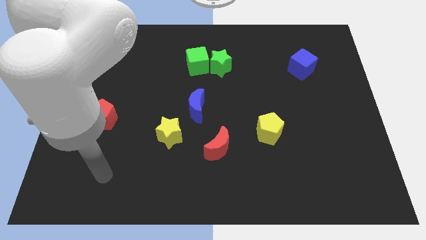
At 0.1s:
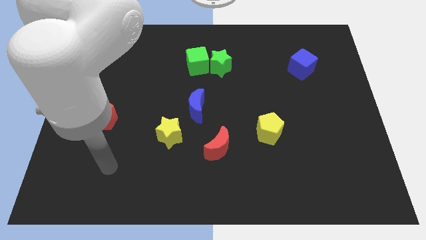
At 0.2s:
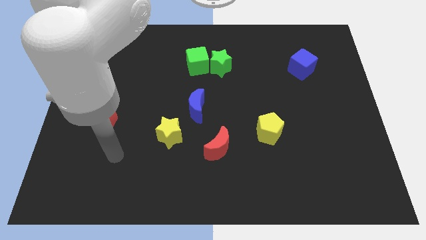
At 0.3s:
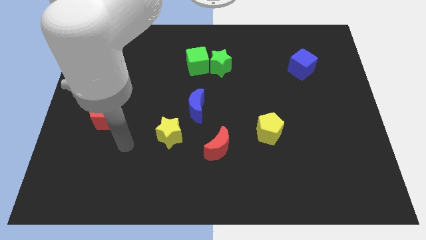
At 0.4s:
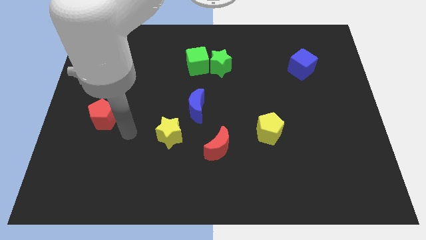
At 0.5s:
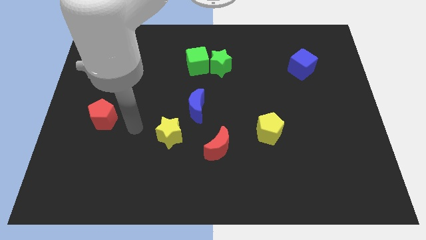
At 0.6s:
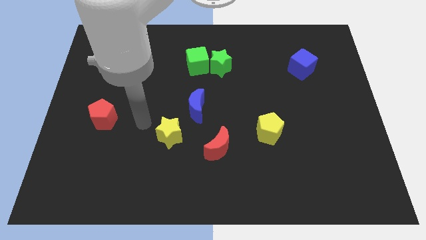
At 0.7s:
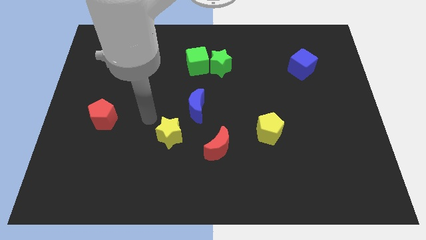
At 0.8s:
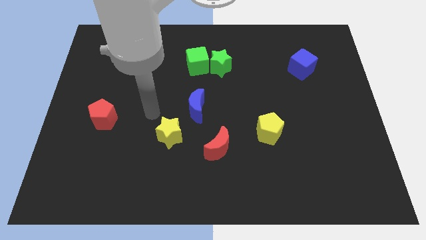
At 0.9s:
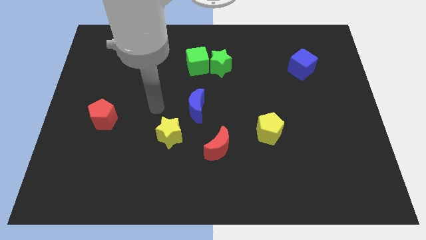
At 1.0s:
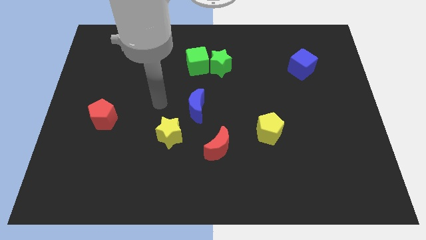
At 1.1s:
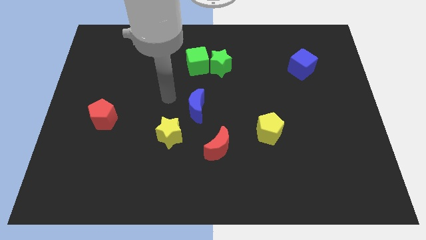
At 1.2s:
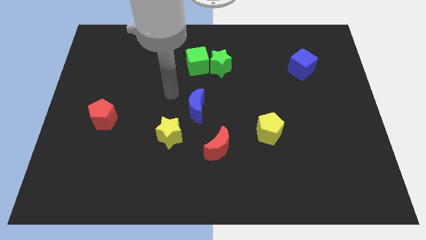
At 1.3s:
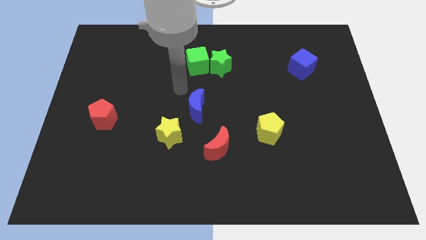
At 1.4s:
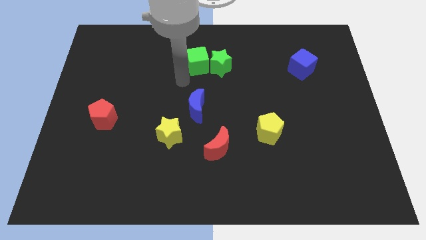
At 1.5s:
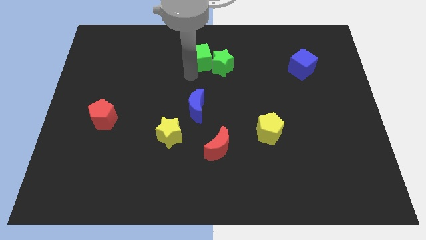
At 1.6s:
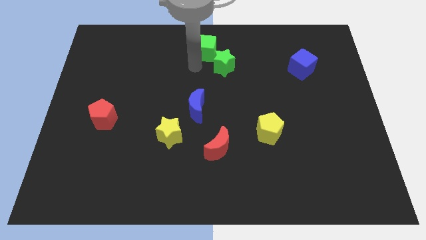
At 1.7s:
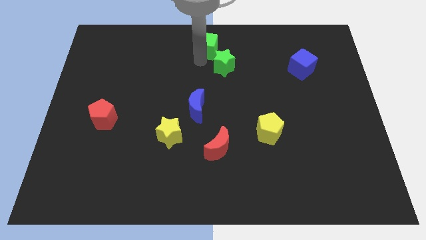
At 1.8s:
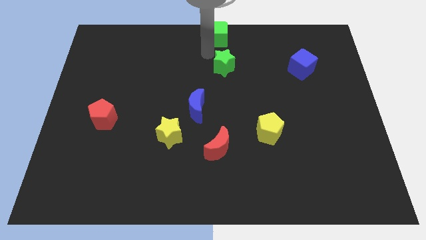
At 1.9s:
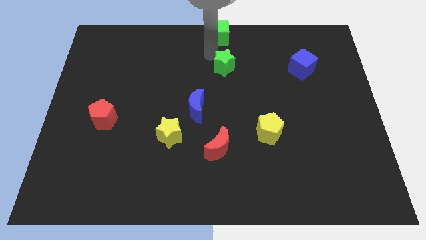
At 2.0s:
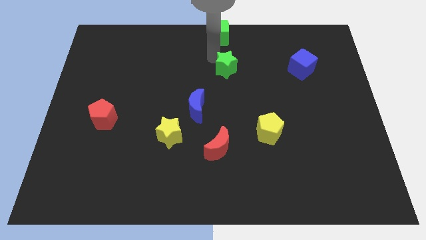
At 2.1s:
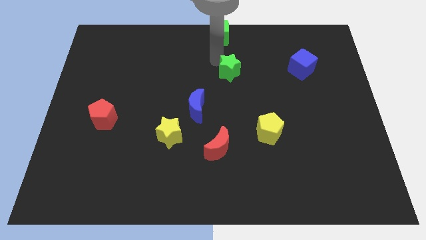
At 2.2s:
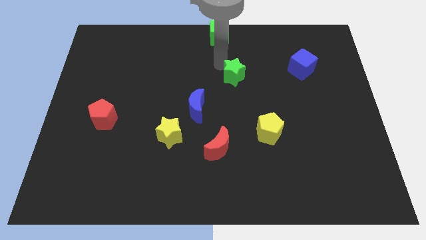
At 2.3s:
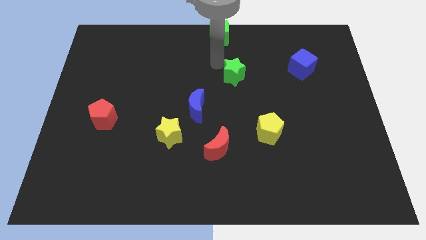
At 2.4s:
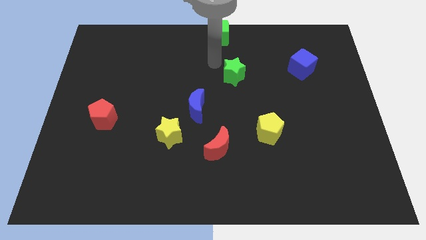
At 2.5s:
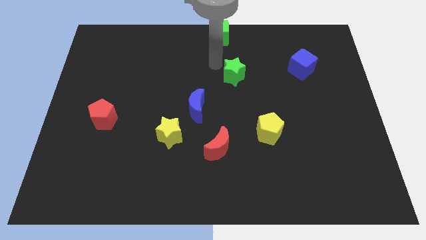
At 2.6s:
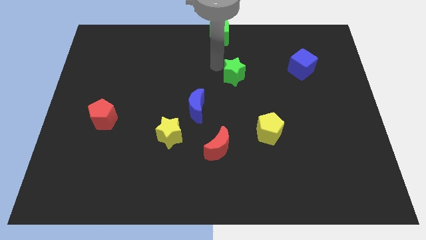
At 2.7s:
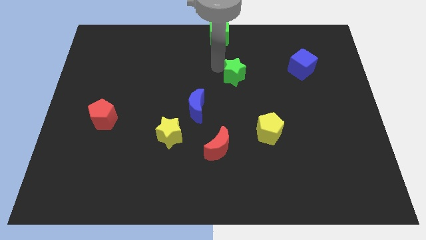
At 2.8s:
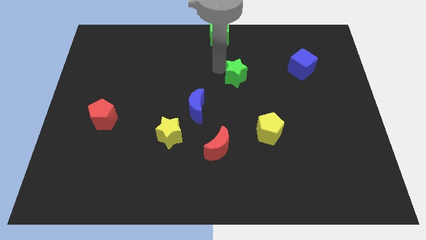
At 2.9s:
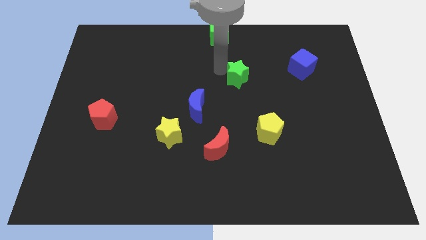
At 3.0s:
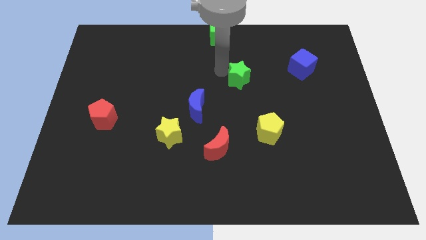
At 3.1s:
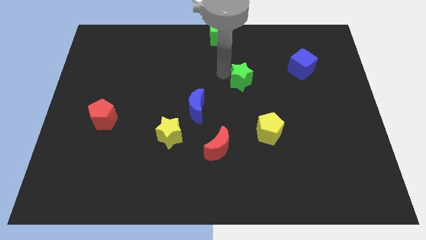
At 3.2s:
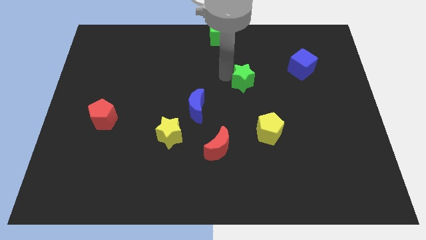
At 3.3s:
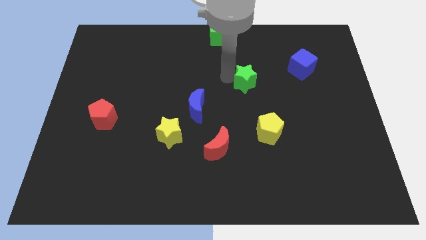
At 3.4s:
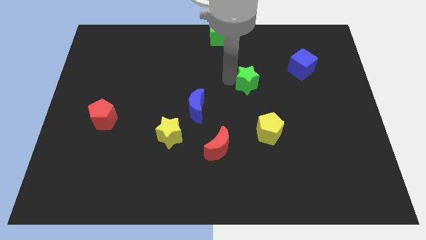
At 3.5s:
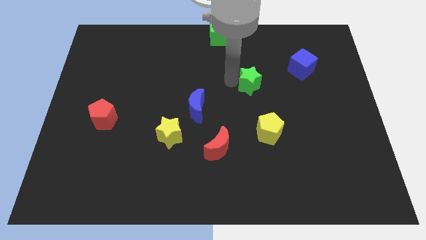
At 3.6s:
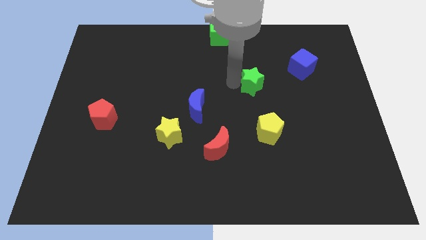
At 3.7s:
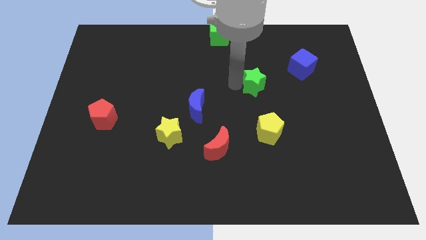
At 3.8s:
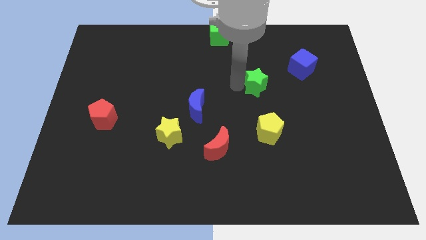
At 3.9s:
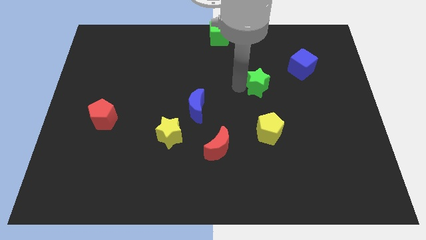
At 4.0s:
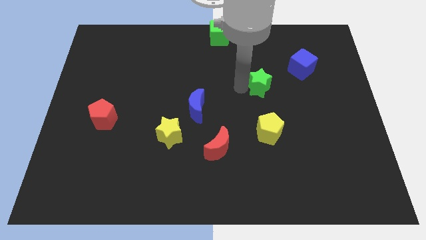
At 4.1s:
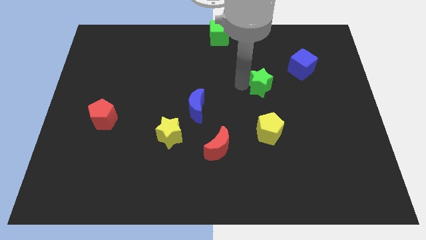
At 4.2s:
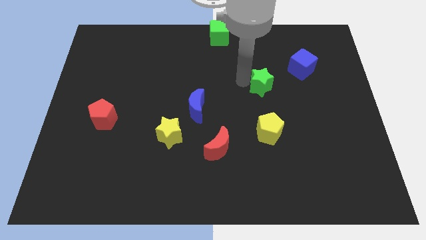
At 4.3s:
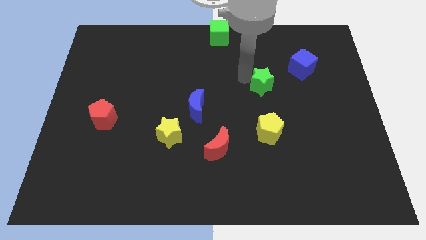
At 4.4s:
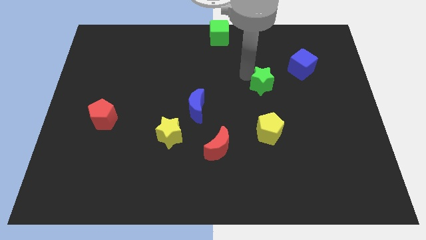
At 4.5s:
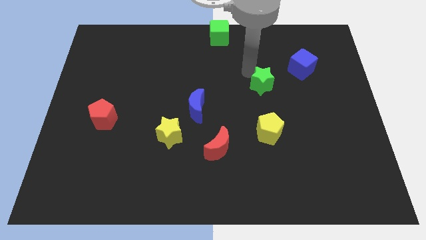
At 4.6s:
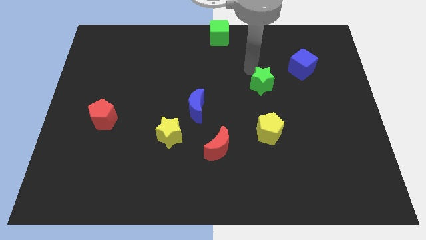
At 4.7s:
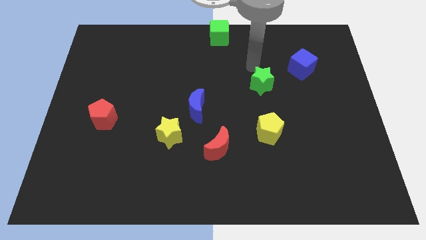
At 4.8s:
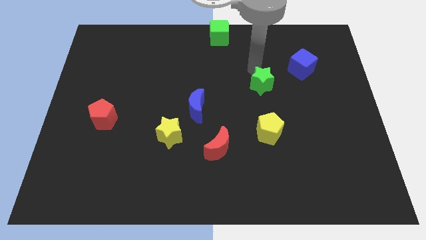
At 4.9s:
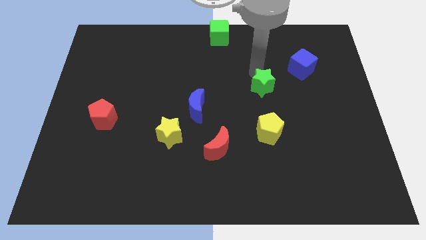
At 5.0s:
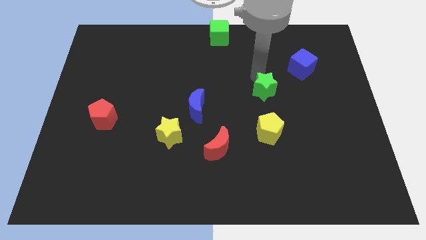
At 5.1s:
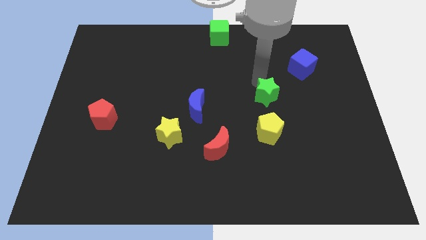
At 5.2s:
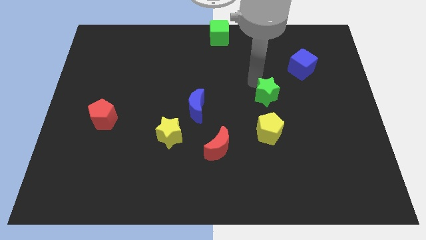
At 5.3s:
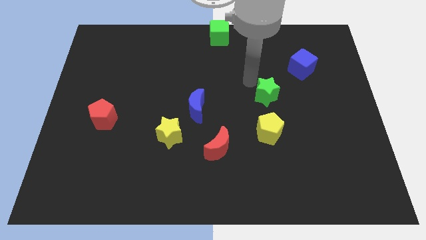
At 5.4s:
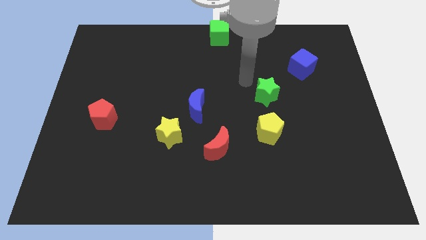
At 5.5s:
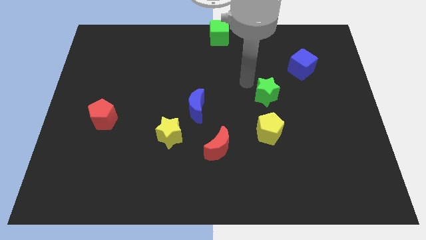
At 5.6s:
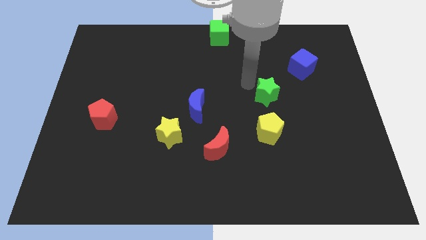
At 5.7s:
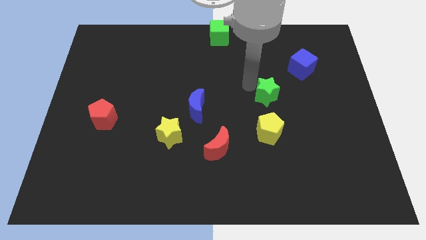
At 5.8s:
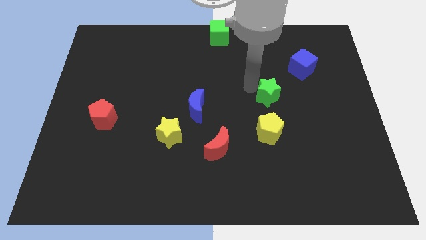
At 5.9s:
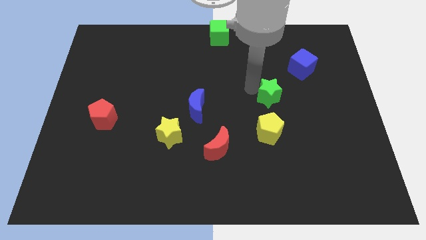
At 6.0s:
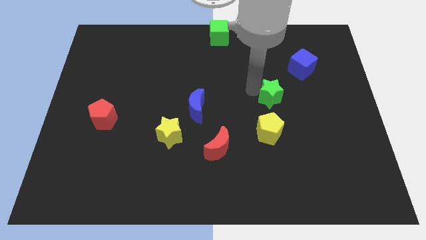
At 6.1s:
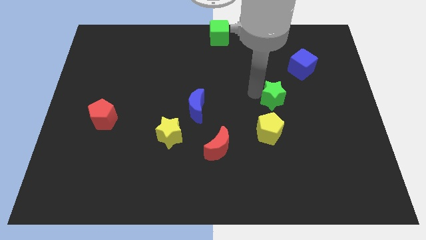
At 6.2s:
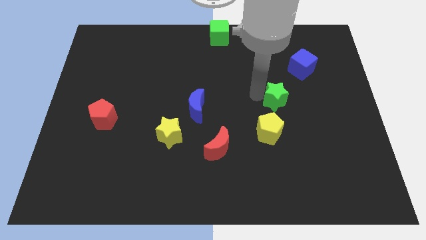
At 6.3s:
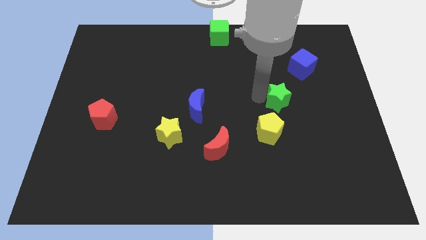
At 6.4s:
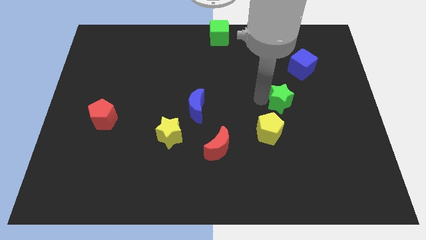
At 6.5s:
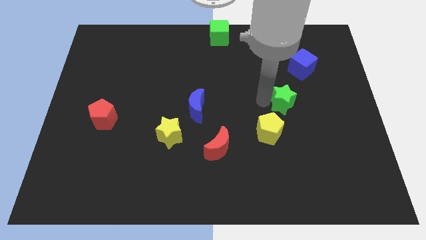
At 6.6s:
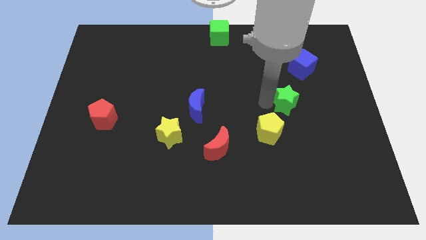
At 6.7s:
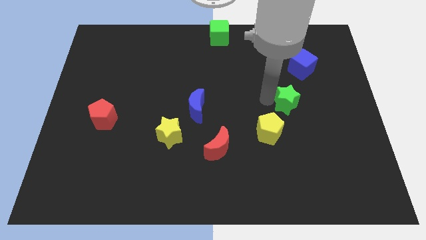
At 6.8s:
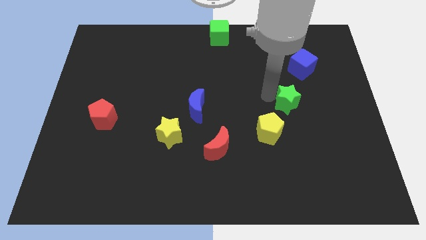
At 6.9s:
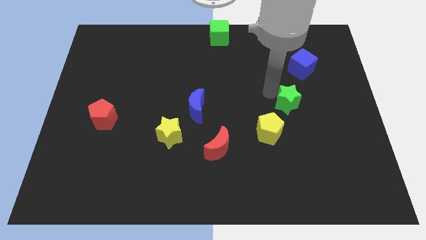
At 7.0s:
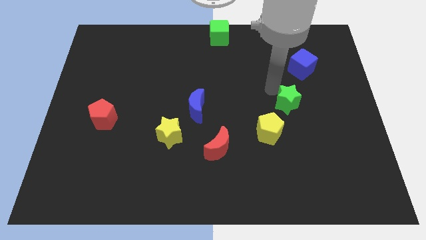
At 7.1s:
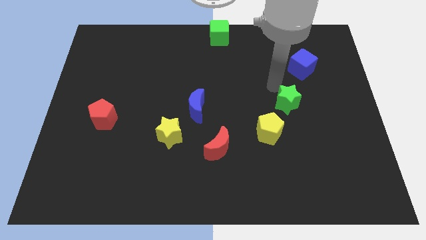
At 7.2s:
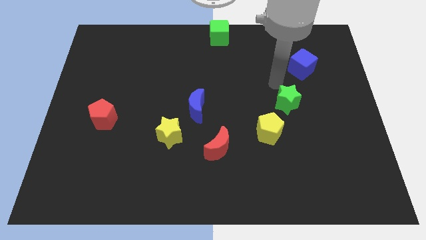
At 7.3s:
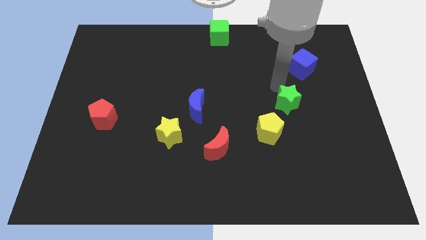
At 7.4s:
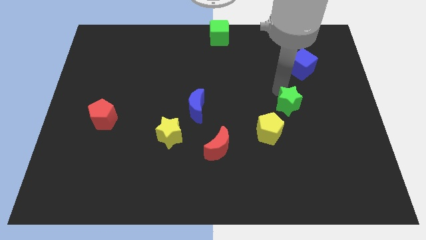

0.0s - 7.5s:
slide the green star downwards and to the right diagonally
